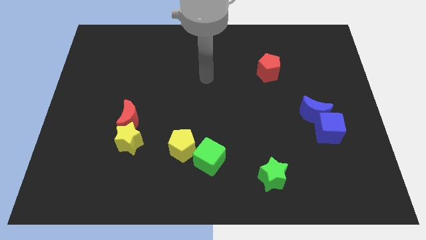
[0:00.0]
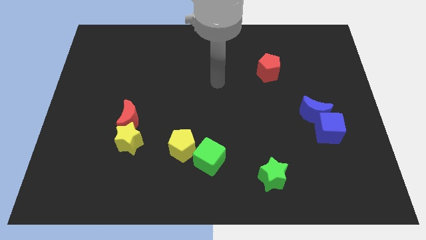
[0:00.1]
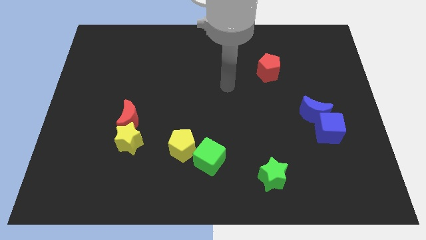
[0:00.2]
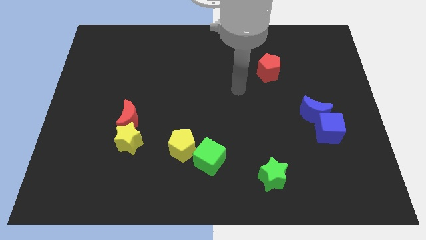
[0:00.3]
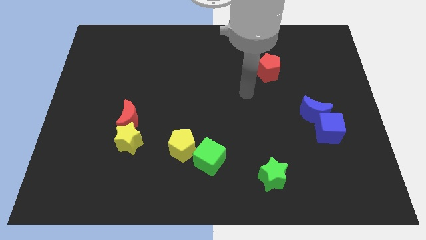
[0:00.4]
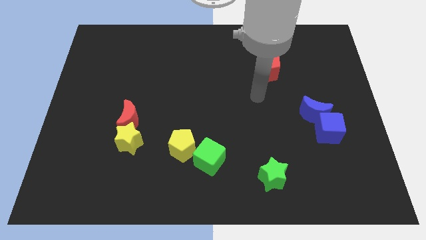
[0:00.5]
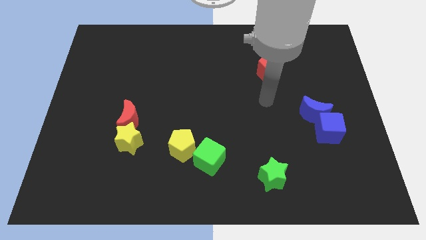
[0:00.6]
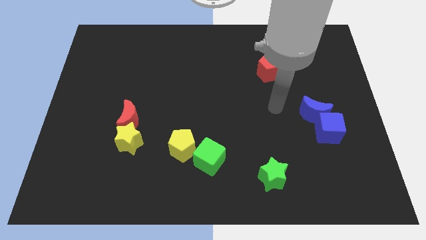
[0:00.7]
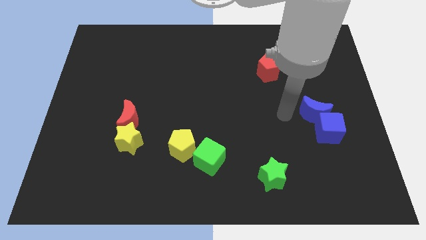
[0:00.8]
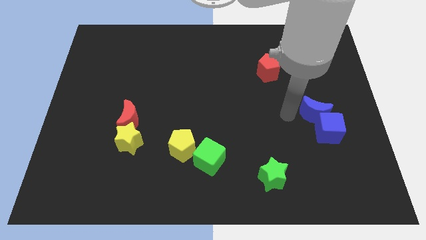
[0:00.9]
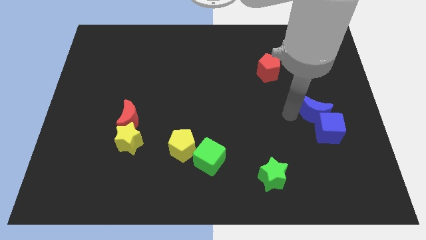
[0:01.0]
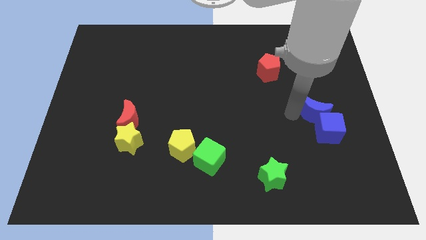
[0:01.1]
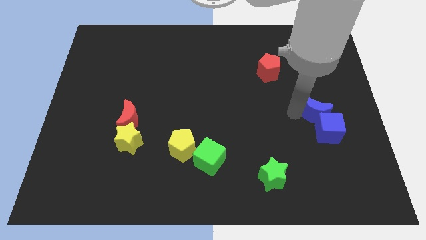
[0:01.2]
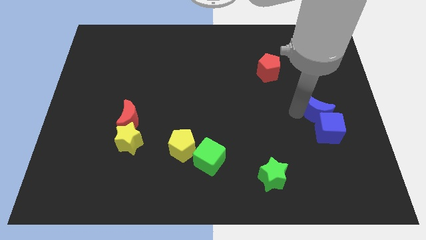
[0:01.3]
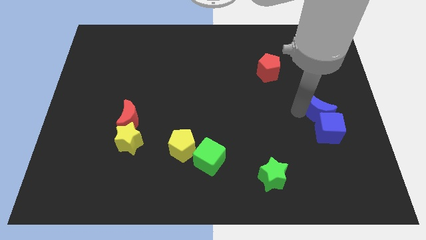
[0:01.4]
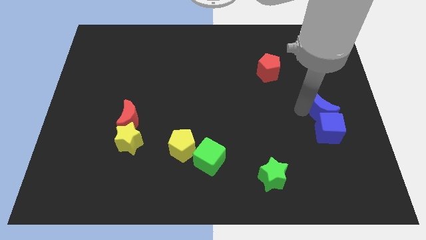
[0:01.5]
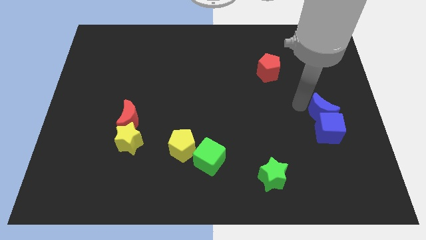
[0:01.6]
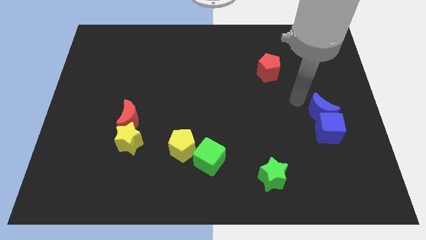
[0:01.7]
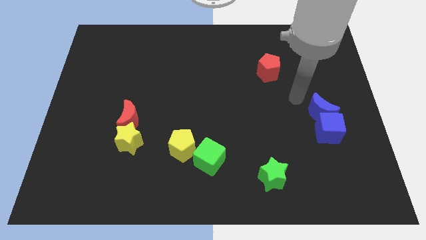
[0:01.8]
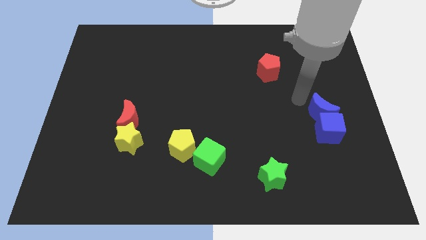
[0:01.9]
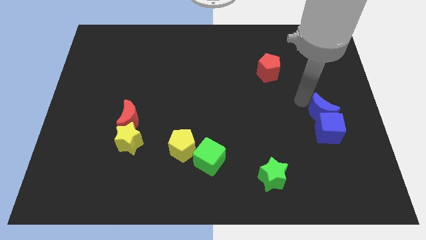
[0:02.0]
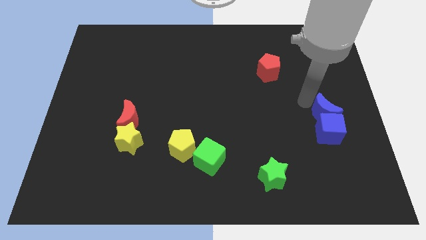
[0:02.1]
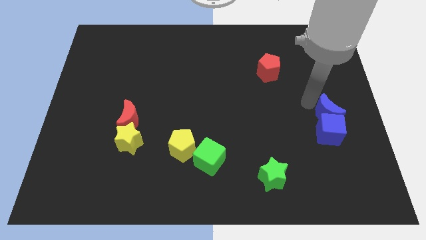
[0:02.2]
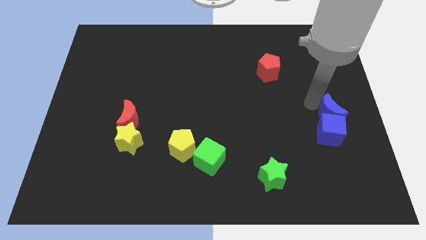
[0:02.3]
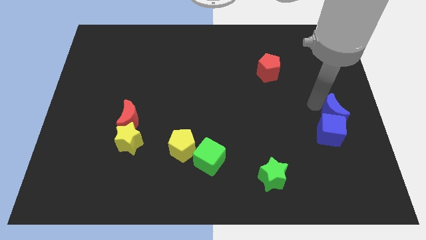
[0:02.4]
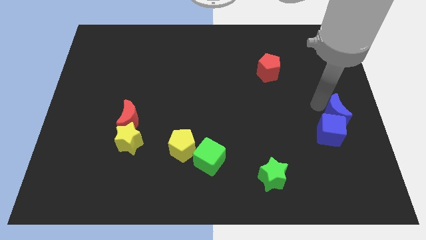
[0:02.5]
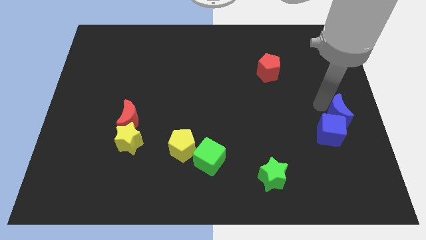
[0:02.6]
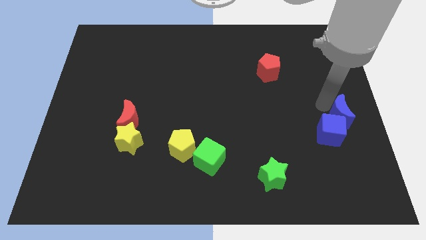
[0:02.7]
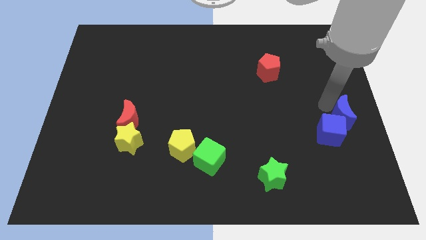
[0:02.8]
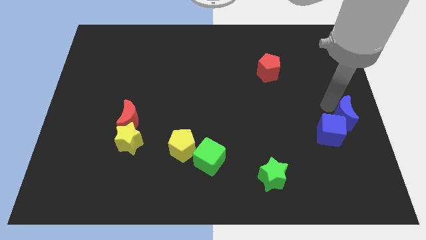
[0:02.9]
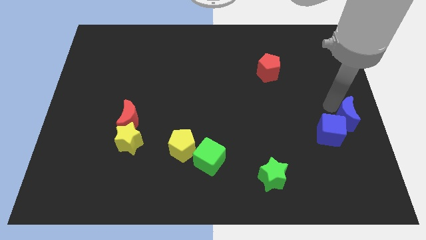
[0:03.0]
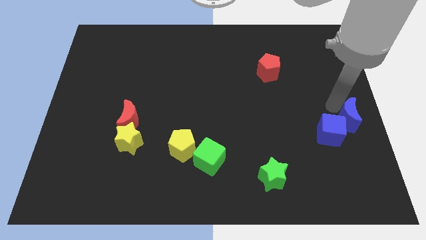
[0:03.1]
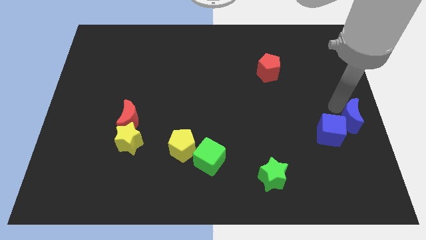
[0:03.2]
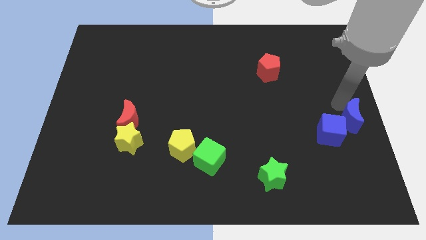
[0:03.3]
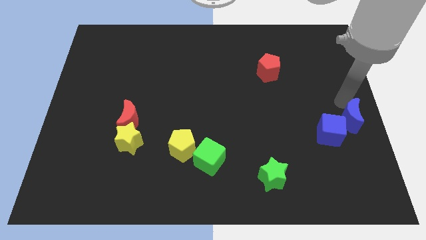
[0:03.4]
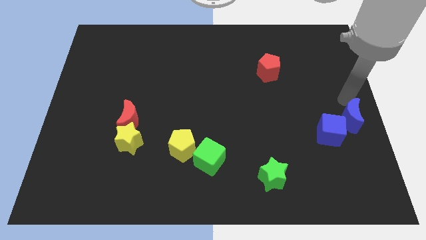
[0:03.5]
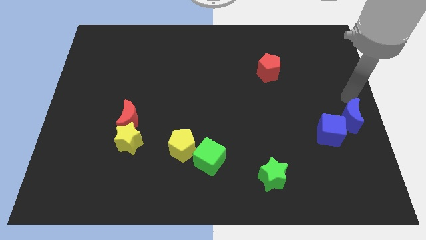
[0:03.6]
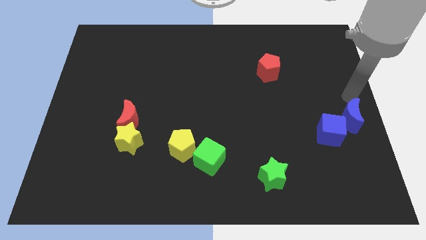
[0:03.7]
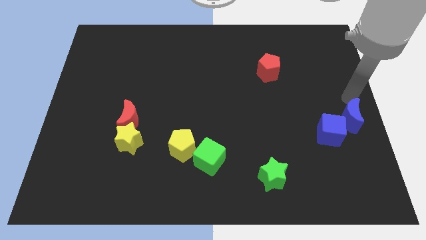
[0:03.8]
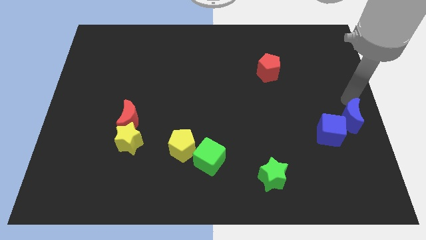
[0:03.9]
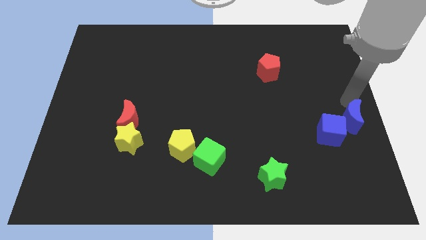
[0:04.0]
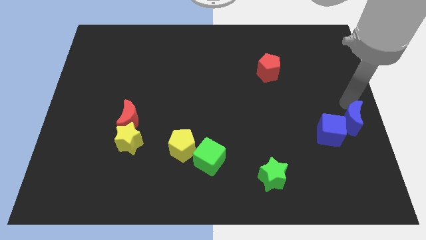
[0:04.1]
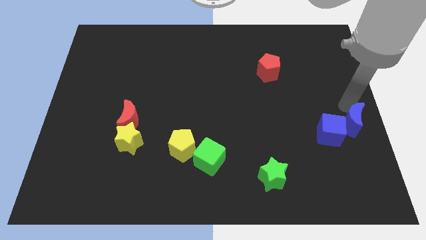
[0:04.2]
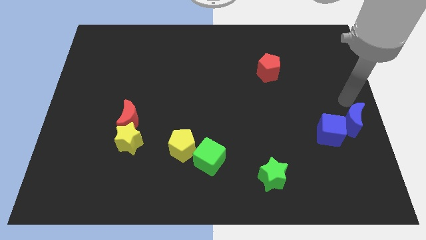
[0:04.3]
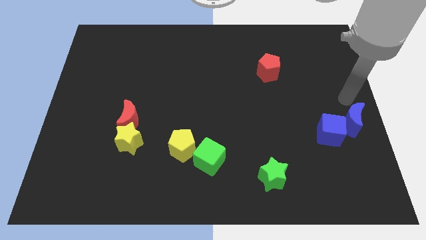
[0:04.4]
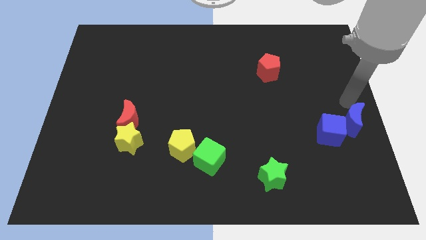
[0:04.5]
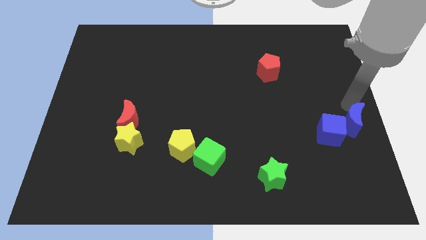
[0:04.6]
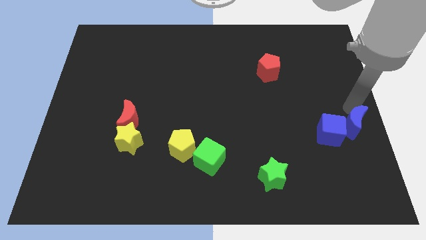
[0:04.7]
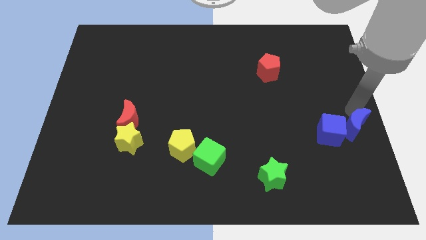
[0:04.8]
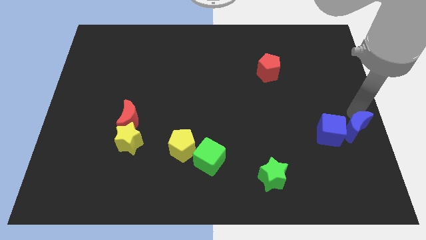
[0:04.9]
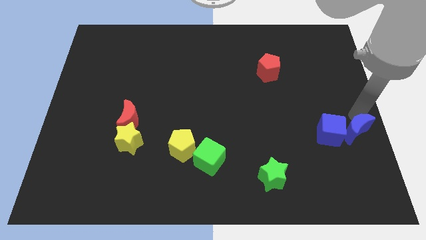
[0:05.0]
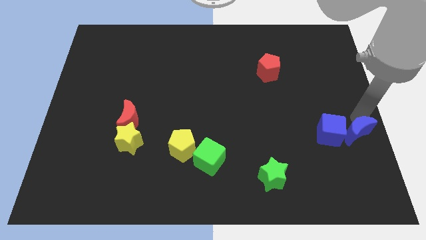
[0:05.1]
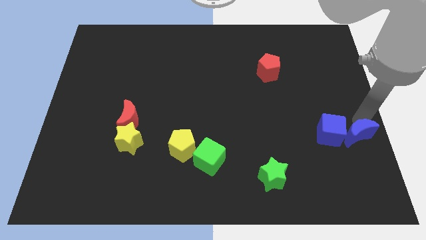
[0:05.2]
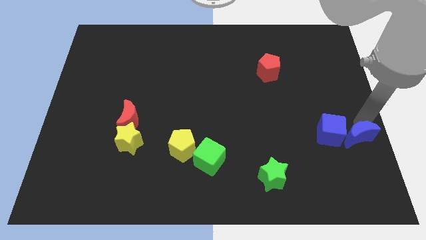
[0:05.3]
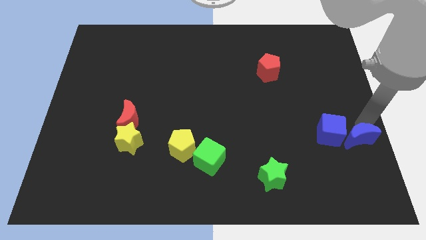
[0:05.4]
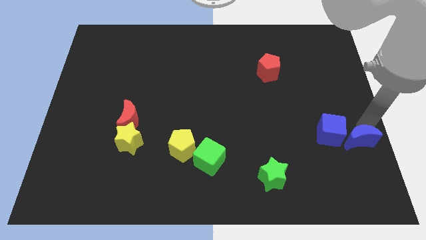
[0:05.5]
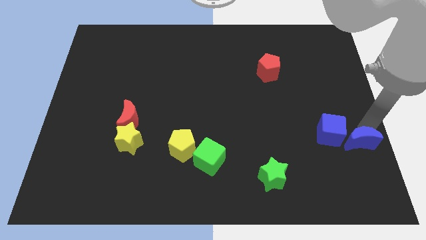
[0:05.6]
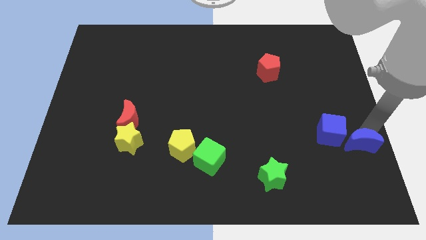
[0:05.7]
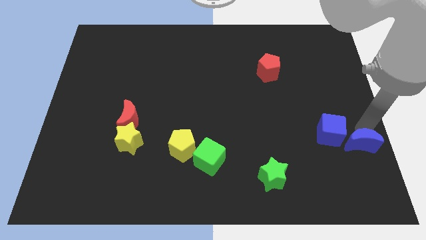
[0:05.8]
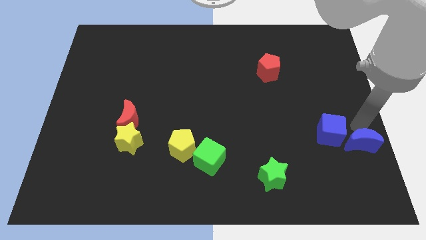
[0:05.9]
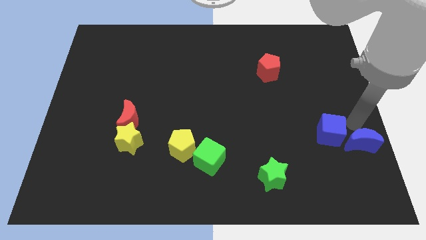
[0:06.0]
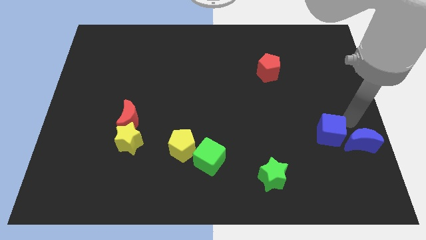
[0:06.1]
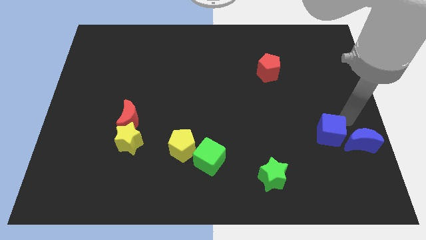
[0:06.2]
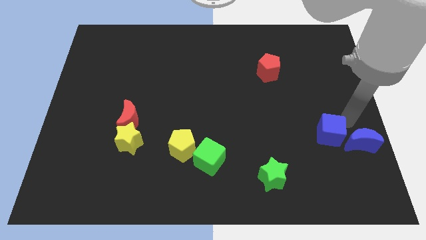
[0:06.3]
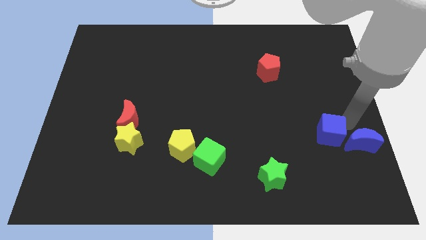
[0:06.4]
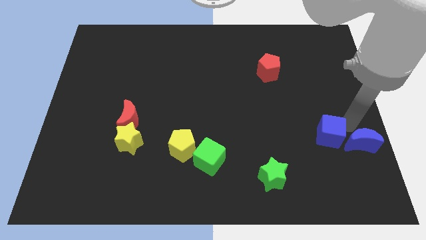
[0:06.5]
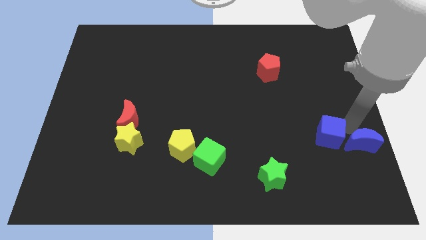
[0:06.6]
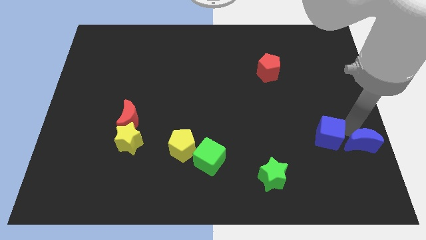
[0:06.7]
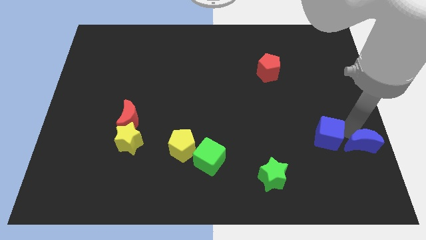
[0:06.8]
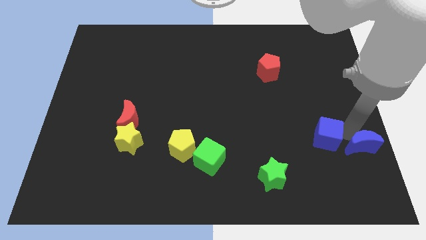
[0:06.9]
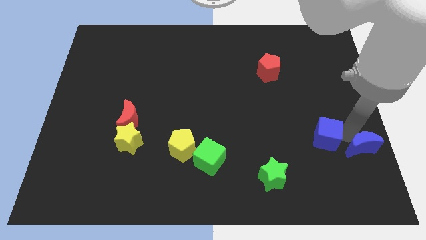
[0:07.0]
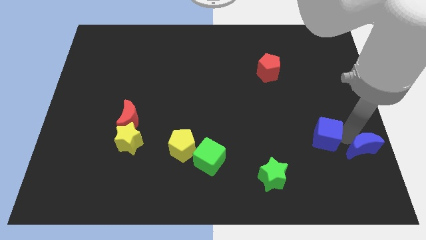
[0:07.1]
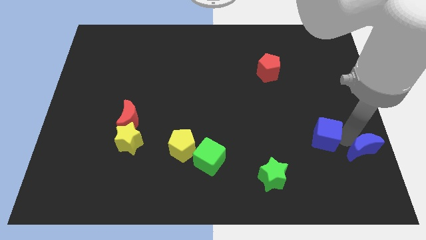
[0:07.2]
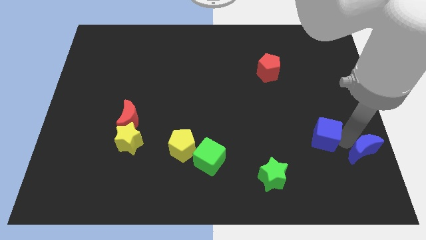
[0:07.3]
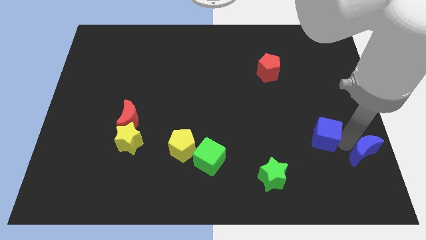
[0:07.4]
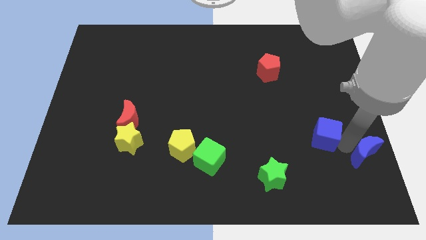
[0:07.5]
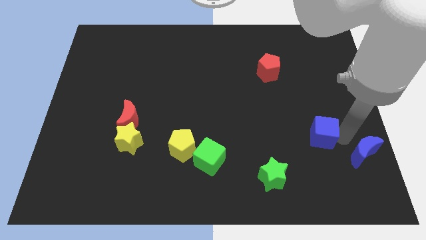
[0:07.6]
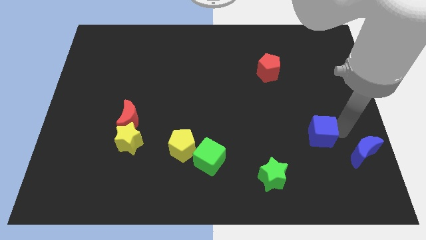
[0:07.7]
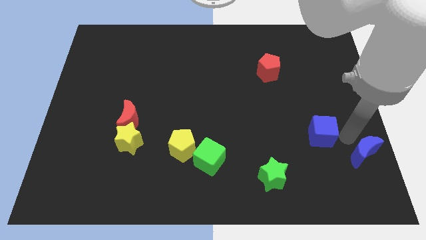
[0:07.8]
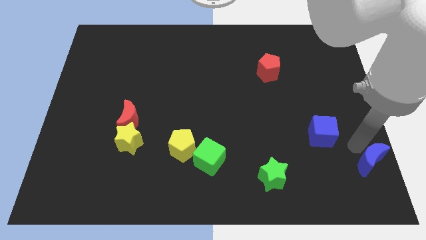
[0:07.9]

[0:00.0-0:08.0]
slide the blue moon to the bottom right corner
